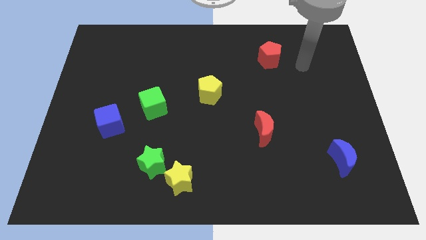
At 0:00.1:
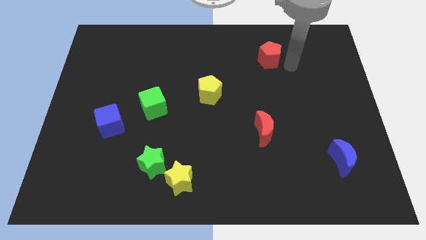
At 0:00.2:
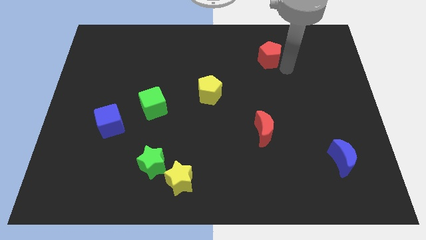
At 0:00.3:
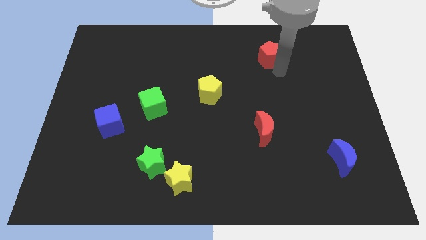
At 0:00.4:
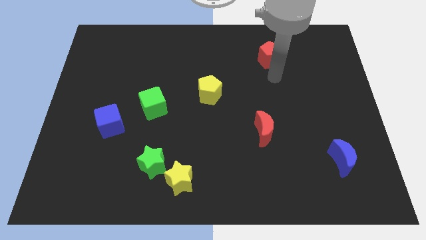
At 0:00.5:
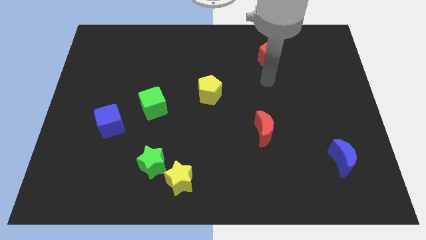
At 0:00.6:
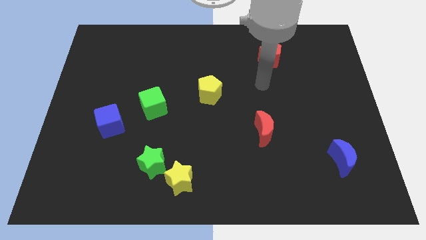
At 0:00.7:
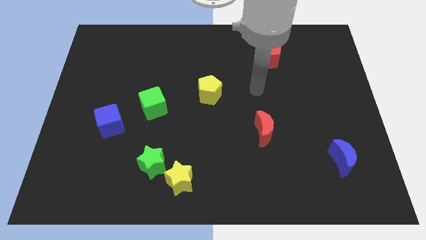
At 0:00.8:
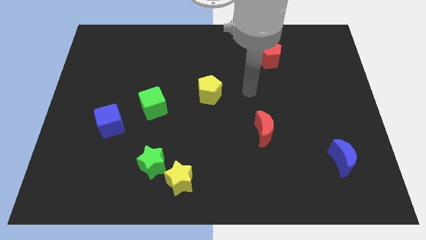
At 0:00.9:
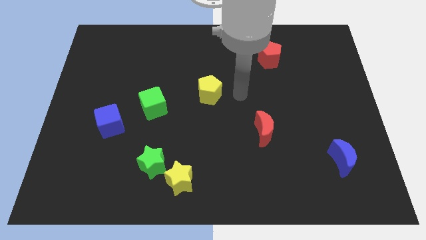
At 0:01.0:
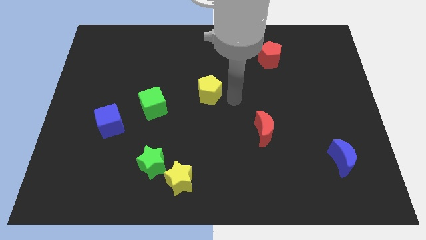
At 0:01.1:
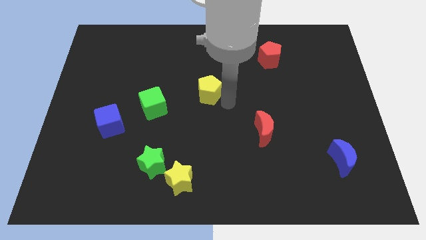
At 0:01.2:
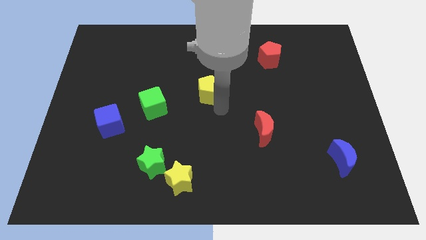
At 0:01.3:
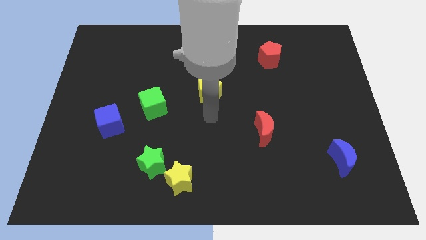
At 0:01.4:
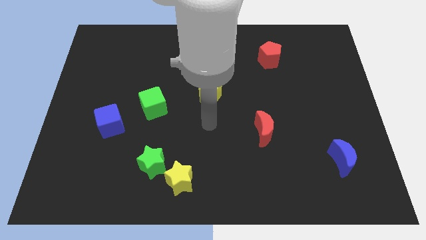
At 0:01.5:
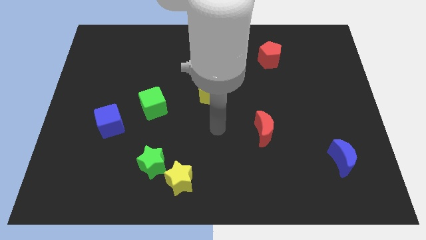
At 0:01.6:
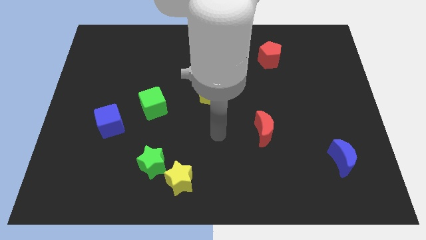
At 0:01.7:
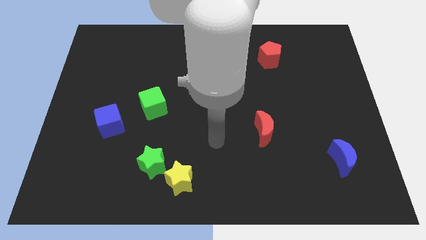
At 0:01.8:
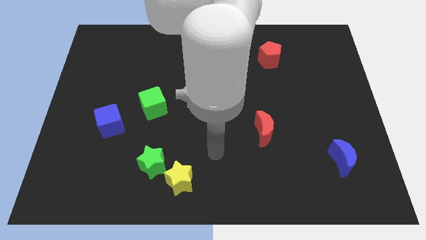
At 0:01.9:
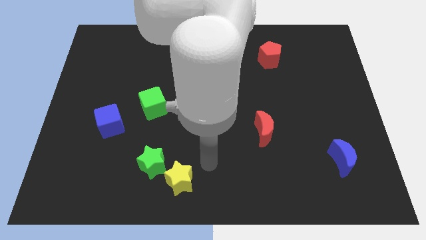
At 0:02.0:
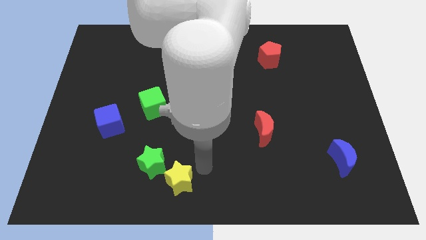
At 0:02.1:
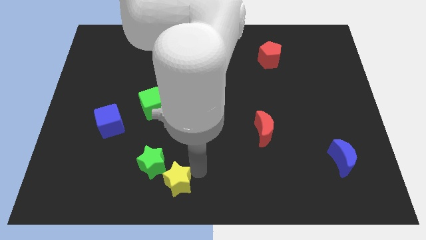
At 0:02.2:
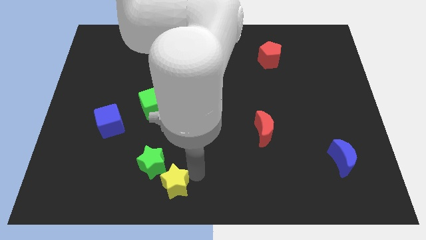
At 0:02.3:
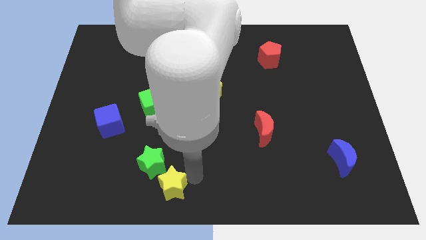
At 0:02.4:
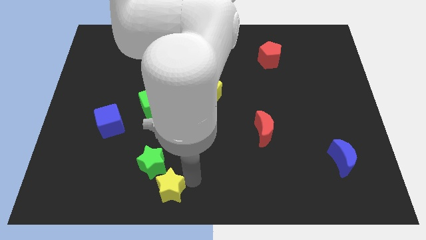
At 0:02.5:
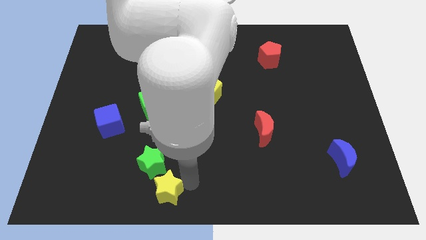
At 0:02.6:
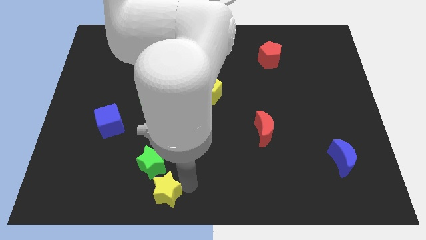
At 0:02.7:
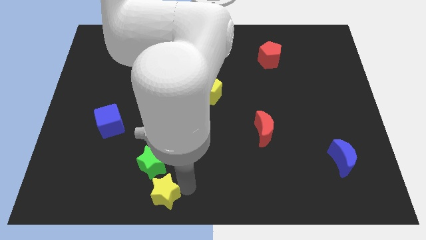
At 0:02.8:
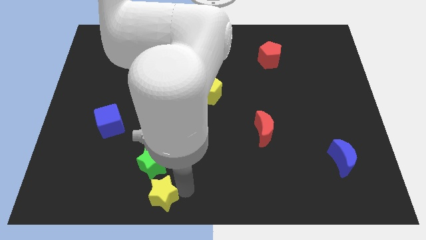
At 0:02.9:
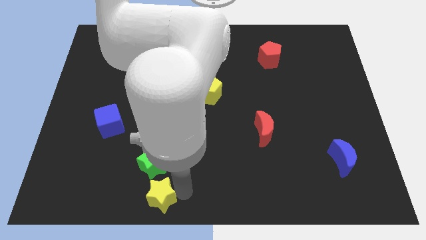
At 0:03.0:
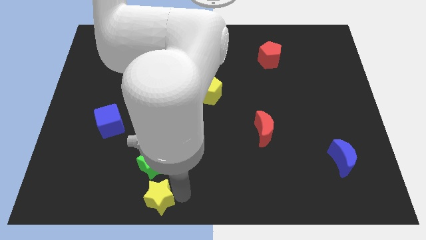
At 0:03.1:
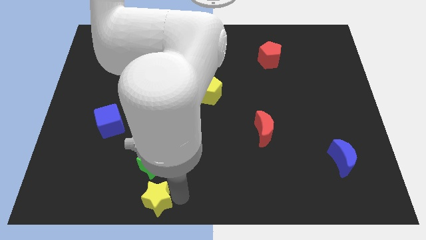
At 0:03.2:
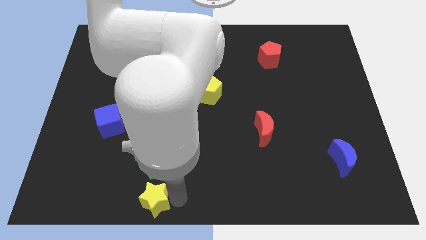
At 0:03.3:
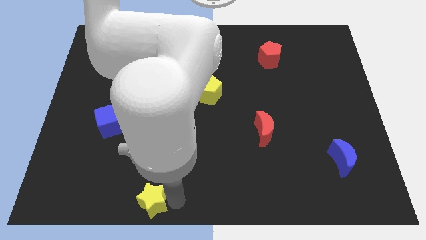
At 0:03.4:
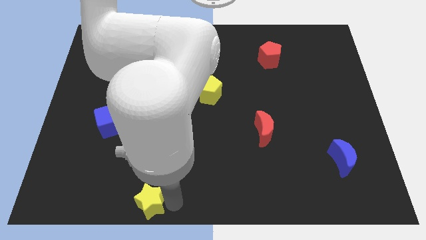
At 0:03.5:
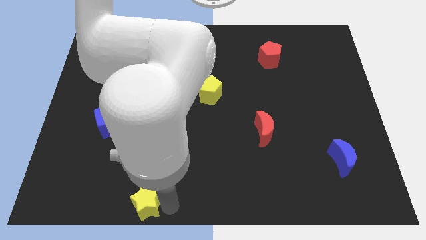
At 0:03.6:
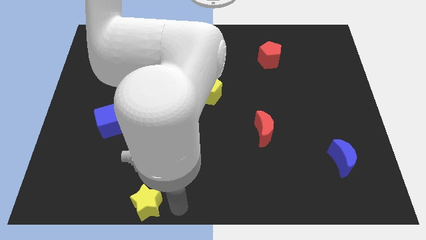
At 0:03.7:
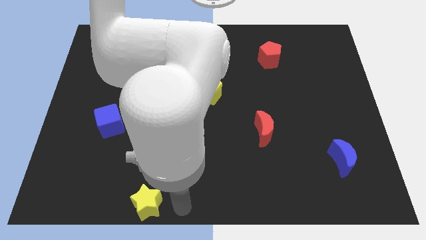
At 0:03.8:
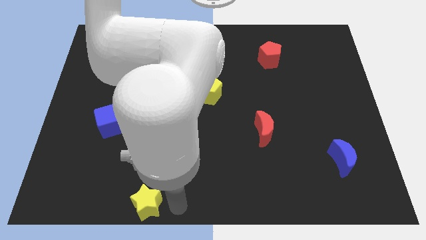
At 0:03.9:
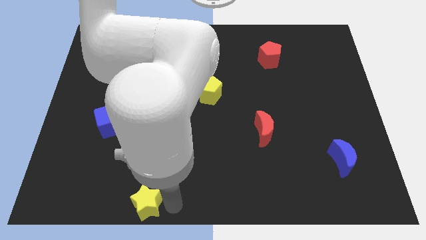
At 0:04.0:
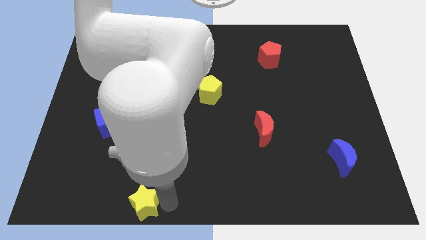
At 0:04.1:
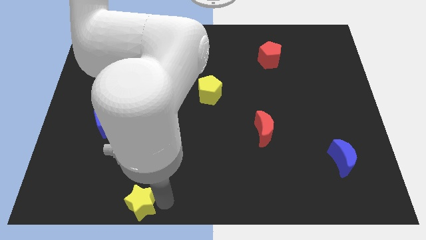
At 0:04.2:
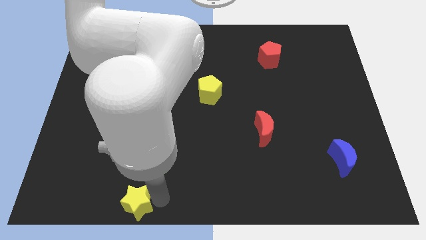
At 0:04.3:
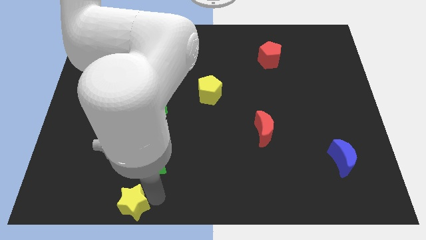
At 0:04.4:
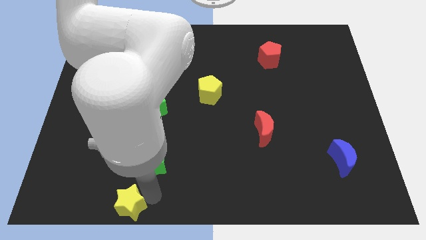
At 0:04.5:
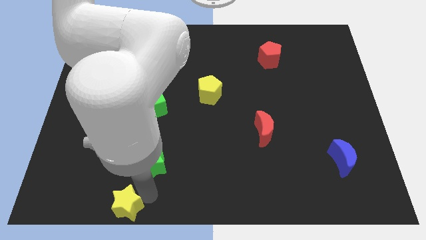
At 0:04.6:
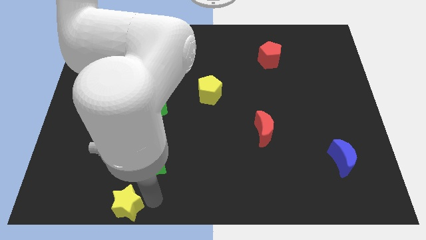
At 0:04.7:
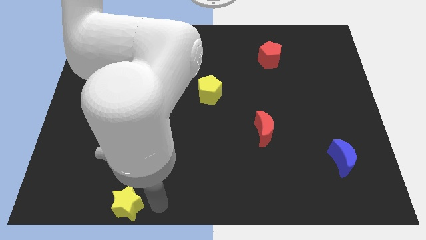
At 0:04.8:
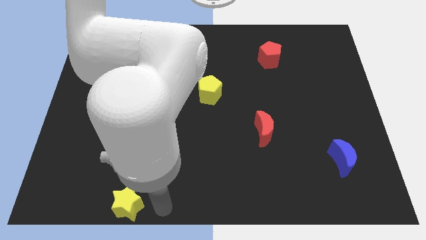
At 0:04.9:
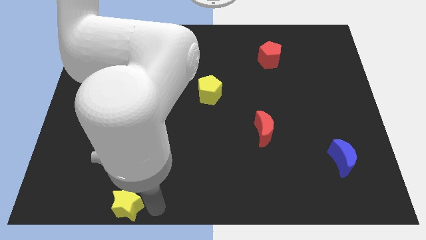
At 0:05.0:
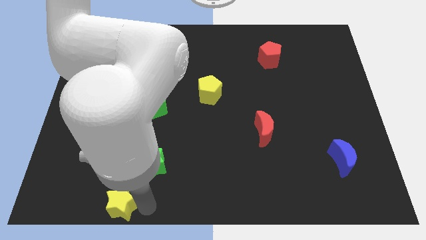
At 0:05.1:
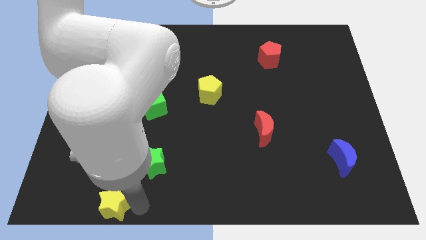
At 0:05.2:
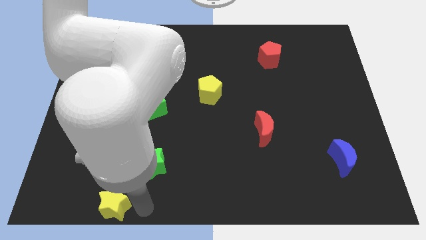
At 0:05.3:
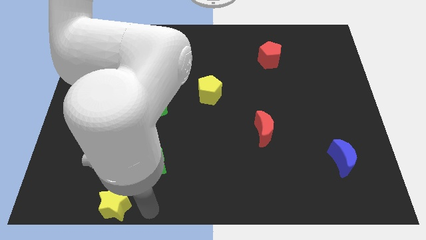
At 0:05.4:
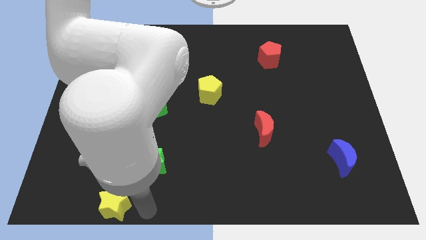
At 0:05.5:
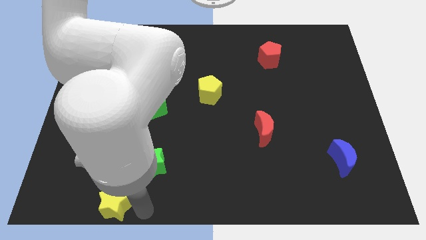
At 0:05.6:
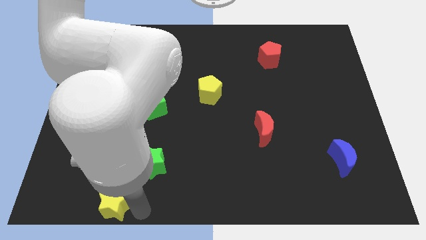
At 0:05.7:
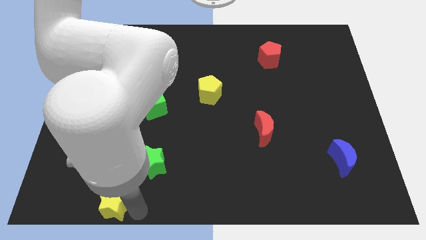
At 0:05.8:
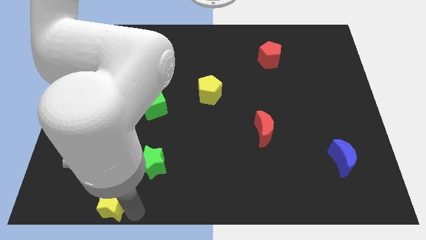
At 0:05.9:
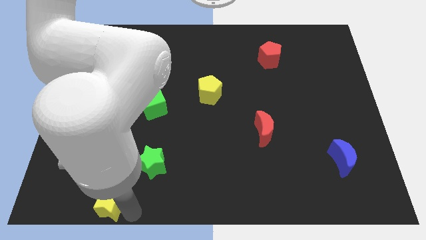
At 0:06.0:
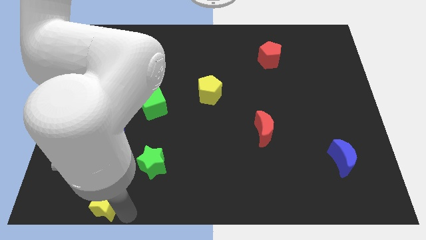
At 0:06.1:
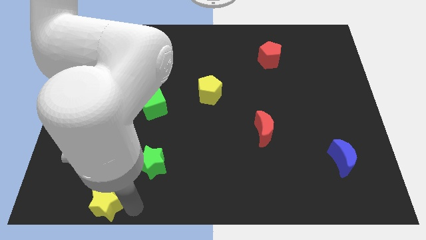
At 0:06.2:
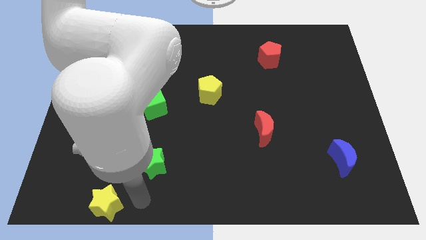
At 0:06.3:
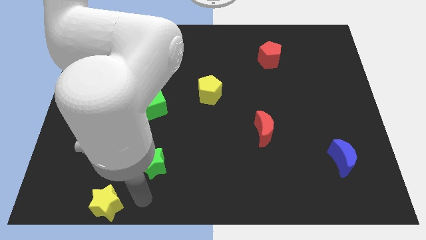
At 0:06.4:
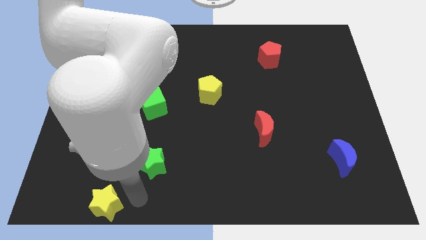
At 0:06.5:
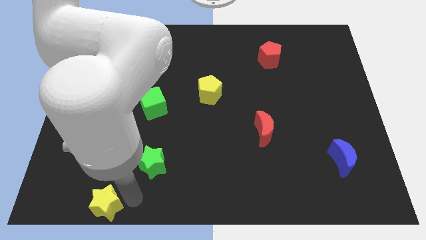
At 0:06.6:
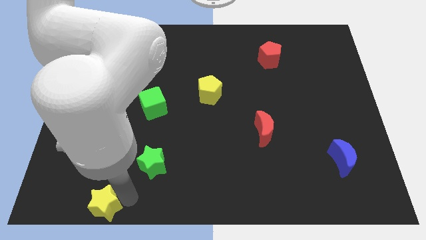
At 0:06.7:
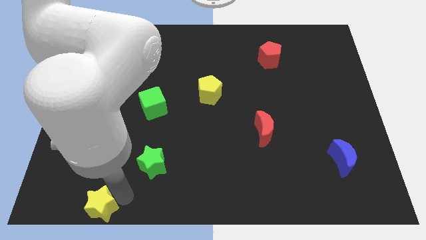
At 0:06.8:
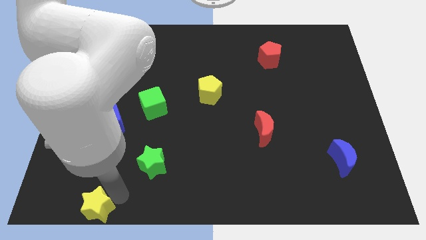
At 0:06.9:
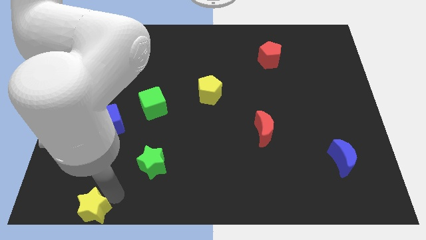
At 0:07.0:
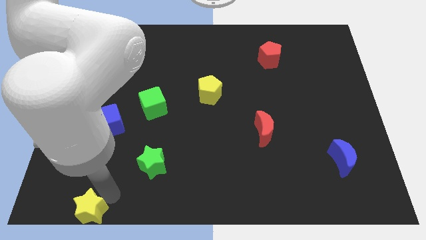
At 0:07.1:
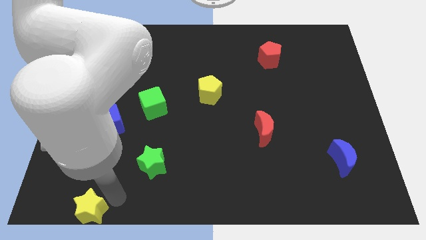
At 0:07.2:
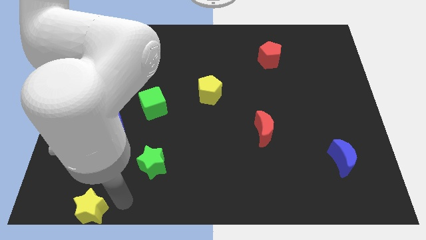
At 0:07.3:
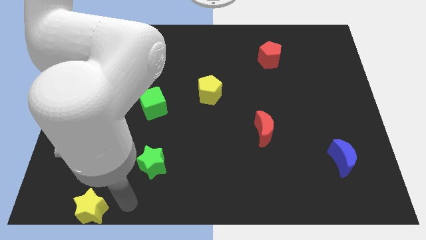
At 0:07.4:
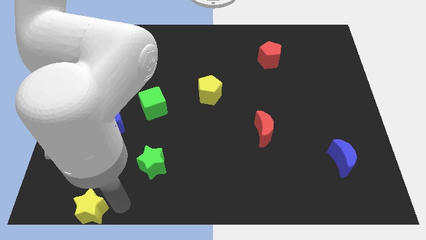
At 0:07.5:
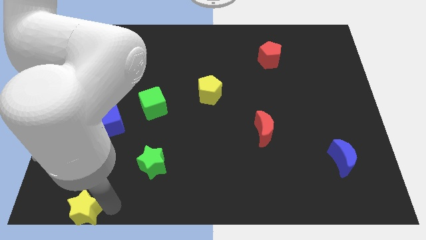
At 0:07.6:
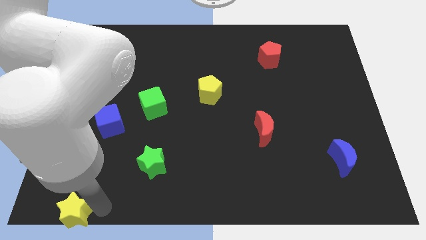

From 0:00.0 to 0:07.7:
push the yellow star to the bottom left corner

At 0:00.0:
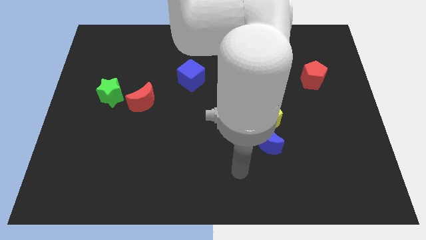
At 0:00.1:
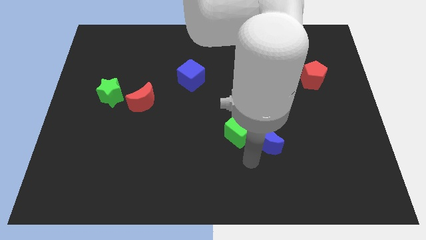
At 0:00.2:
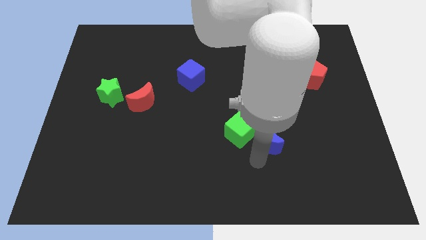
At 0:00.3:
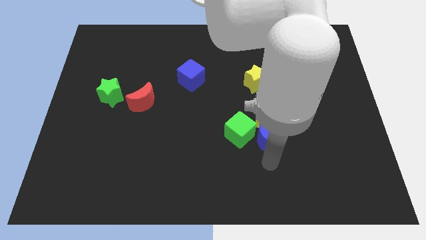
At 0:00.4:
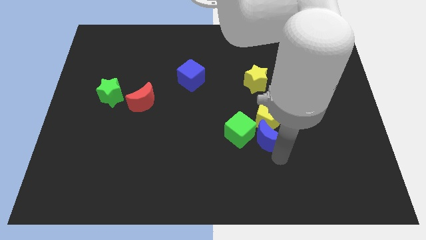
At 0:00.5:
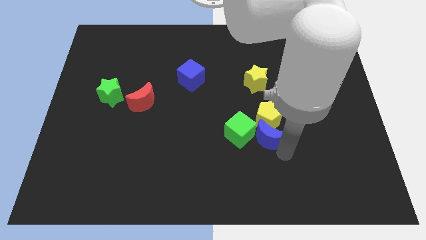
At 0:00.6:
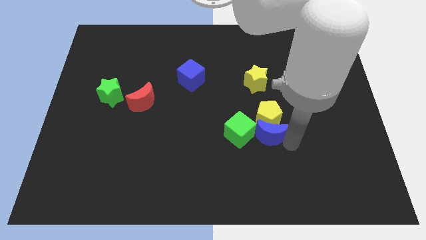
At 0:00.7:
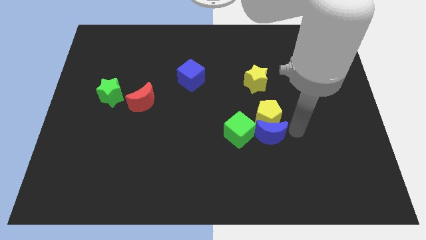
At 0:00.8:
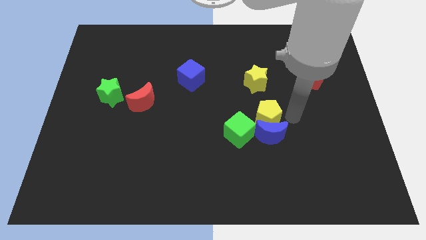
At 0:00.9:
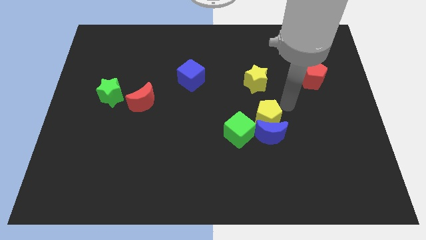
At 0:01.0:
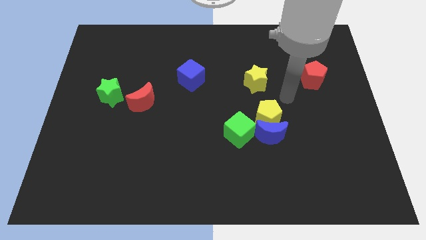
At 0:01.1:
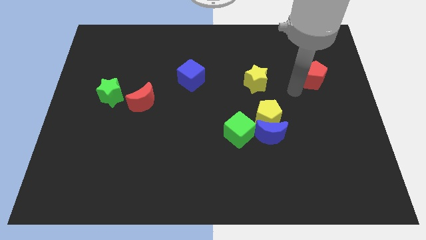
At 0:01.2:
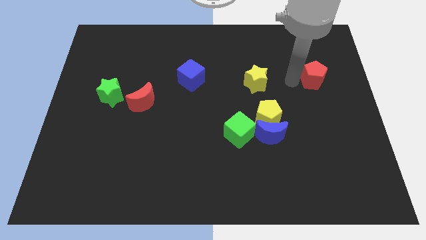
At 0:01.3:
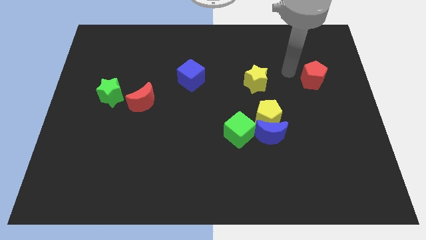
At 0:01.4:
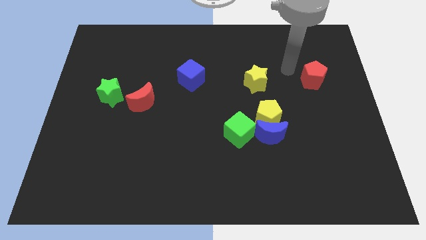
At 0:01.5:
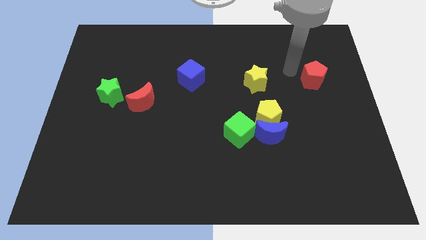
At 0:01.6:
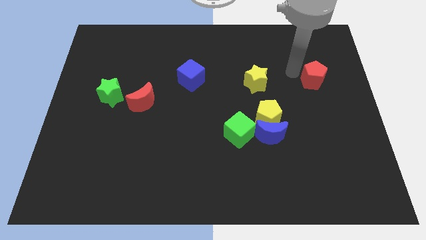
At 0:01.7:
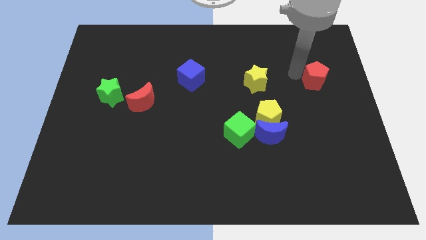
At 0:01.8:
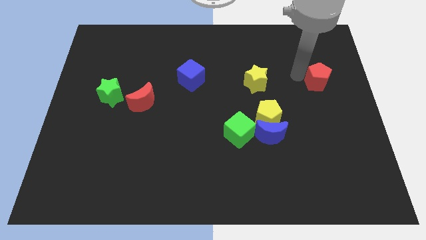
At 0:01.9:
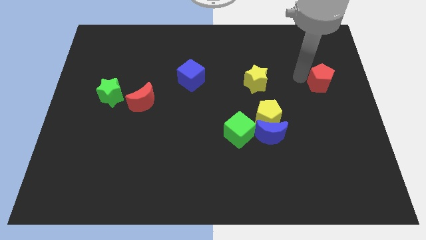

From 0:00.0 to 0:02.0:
move the red pentagon to the right side
